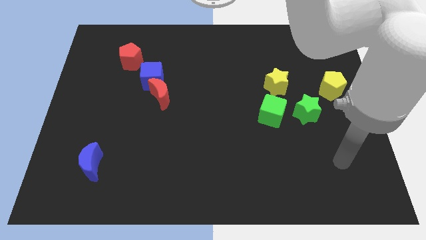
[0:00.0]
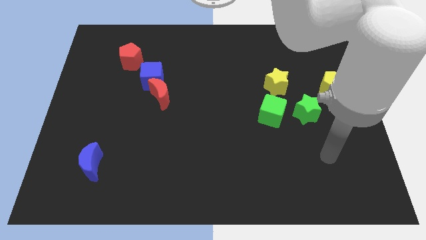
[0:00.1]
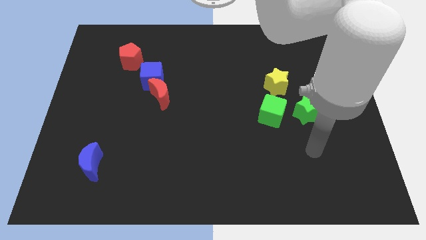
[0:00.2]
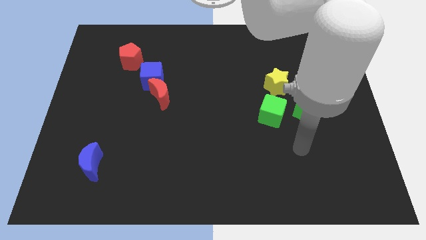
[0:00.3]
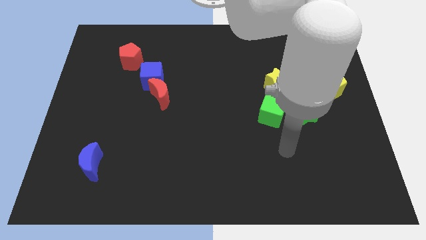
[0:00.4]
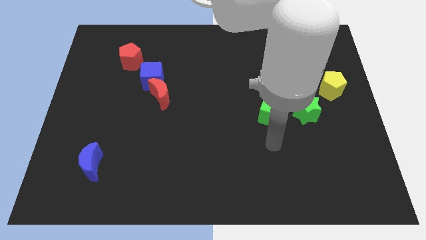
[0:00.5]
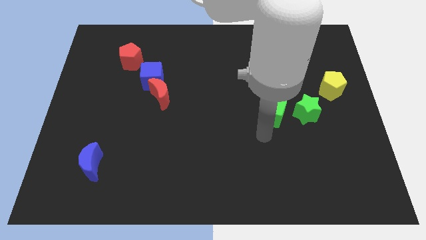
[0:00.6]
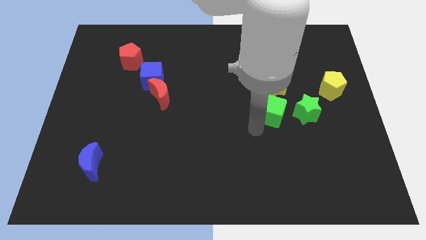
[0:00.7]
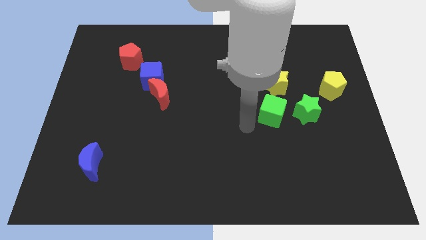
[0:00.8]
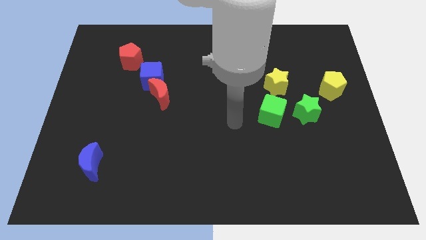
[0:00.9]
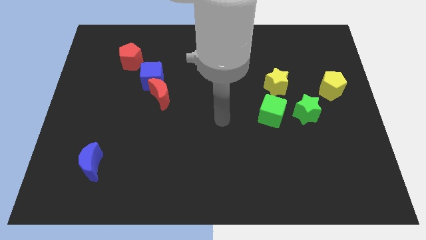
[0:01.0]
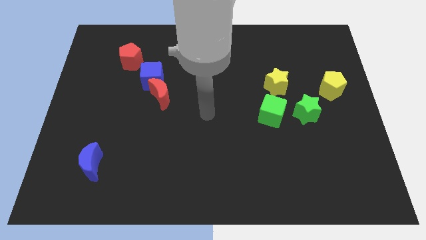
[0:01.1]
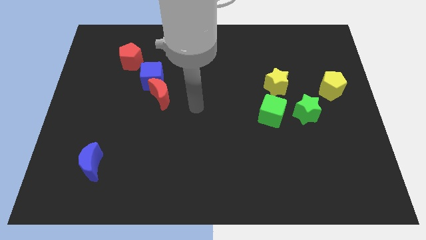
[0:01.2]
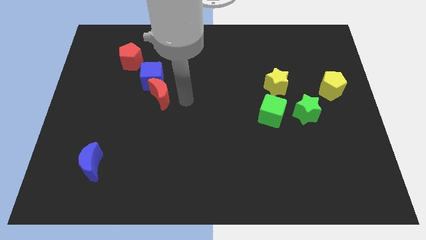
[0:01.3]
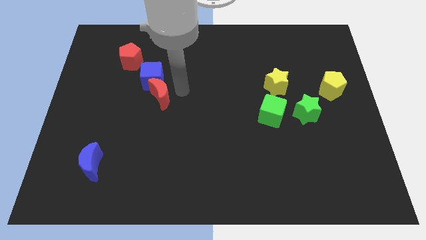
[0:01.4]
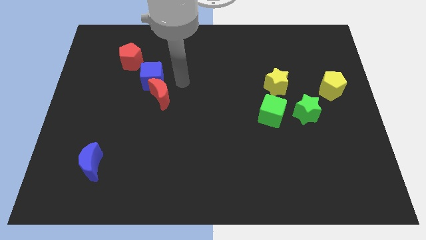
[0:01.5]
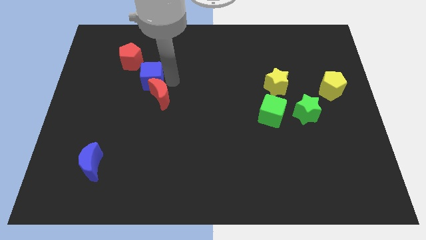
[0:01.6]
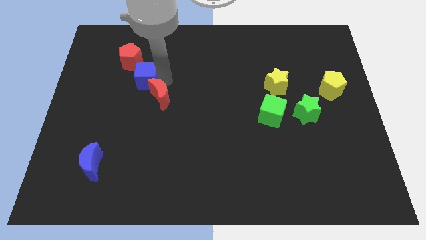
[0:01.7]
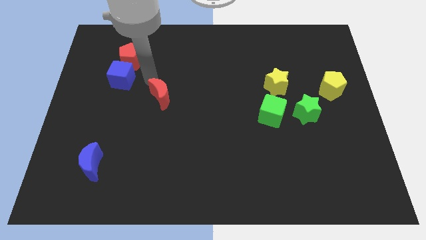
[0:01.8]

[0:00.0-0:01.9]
move the red moon away from the blue cube

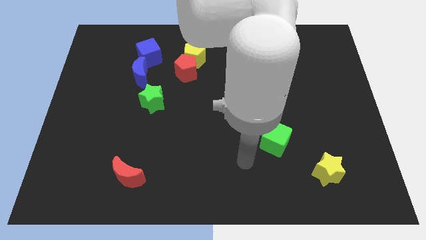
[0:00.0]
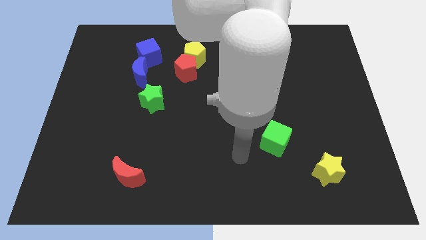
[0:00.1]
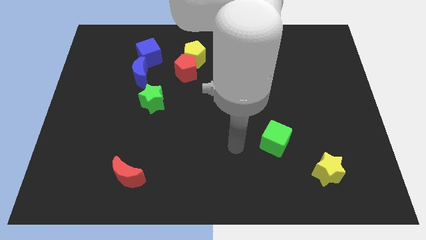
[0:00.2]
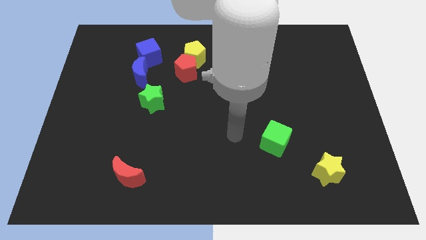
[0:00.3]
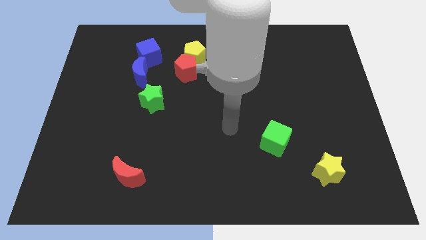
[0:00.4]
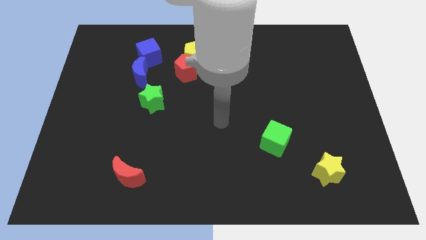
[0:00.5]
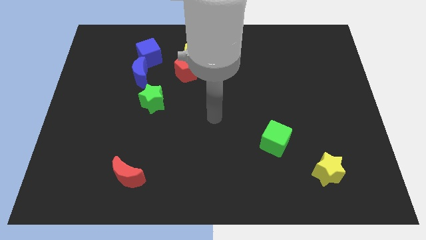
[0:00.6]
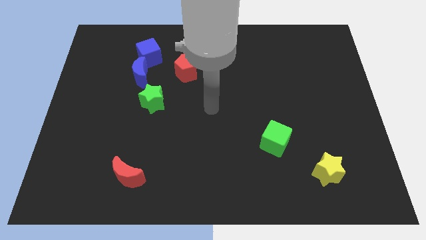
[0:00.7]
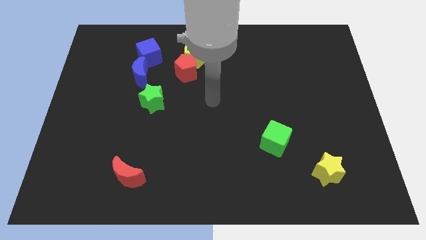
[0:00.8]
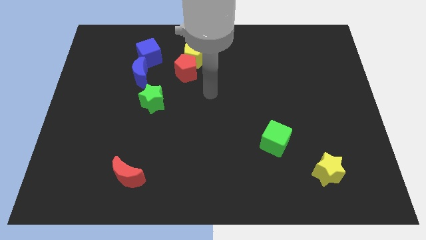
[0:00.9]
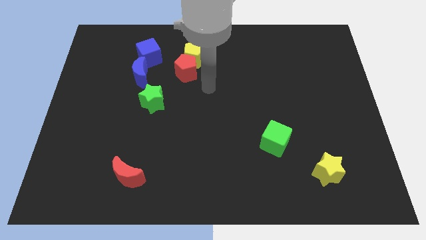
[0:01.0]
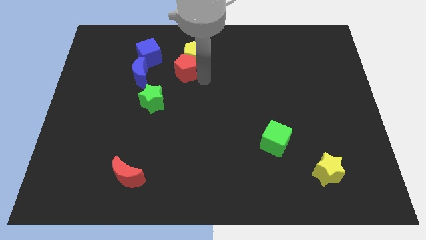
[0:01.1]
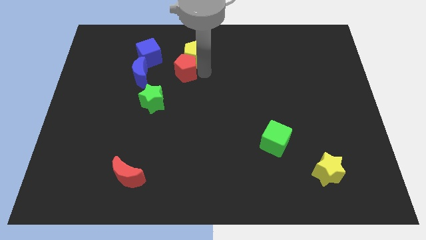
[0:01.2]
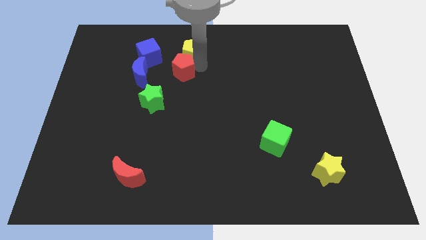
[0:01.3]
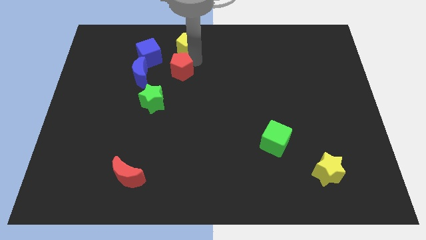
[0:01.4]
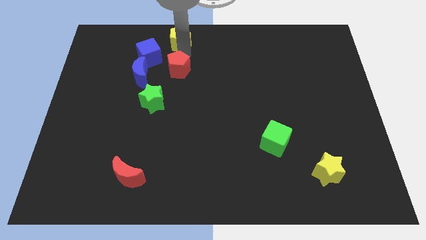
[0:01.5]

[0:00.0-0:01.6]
separate the red pentagon from the yellow pentagon

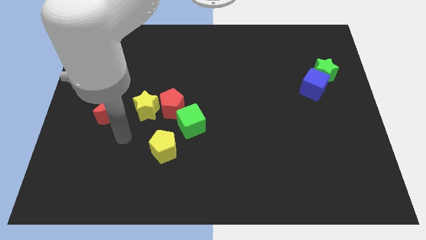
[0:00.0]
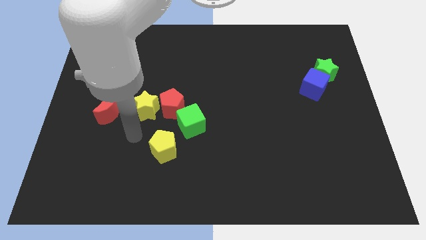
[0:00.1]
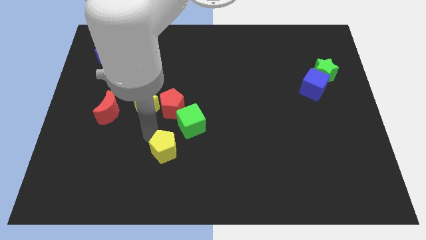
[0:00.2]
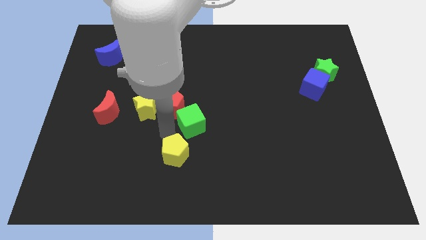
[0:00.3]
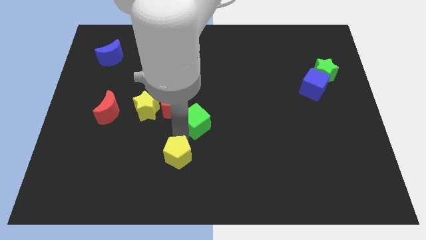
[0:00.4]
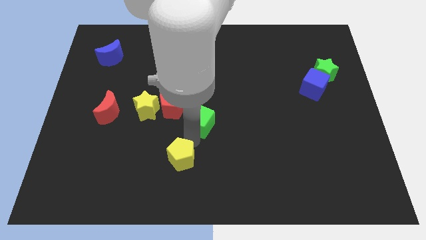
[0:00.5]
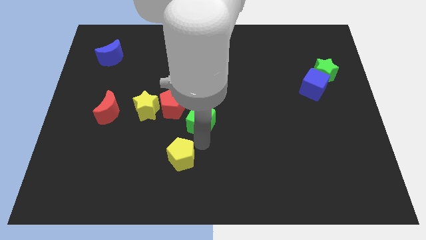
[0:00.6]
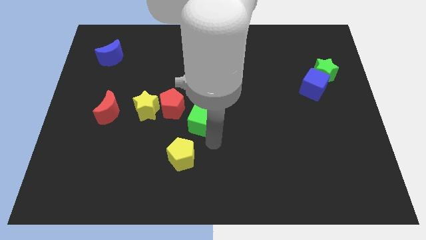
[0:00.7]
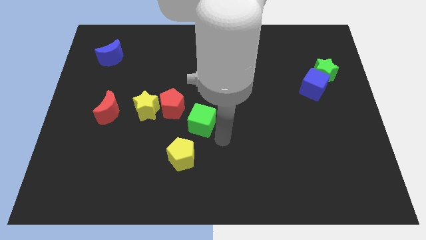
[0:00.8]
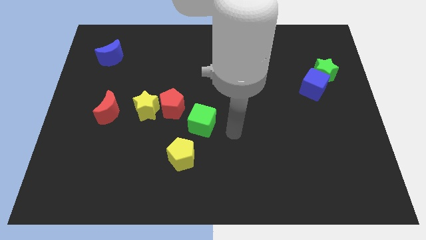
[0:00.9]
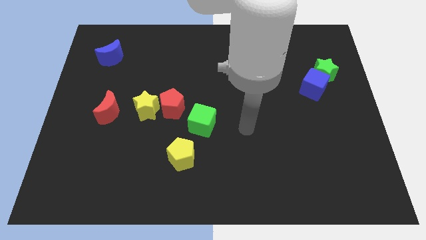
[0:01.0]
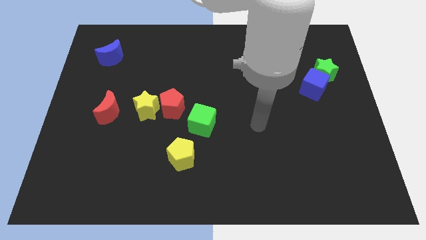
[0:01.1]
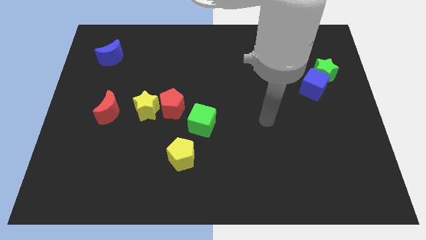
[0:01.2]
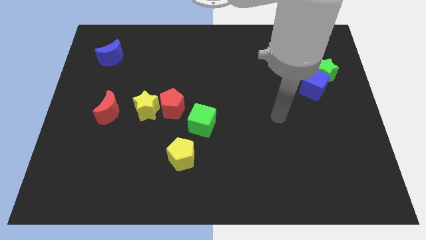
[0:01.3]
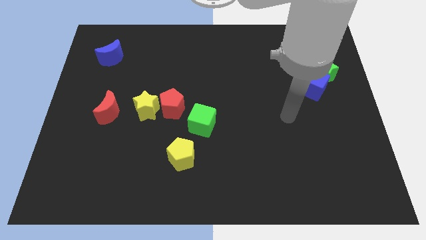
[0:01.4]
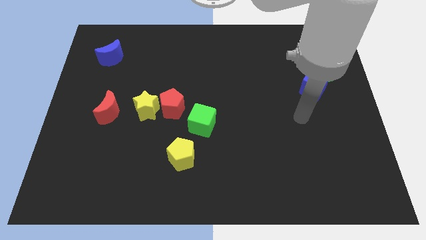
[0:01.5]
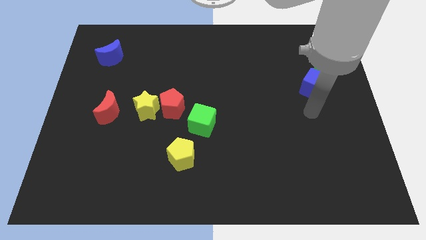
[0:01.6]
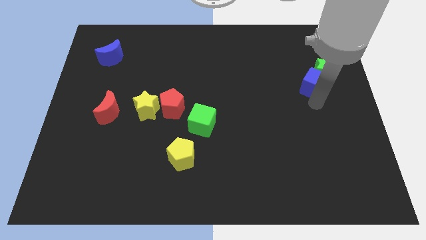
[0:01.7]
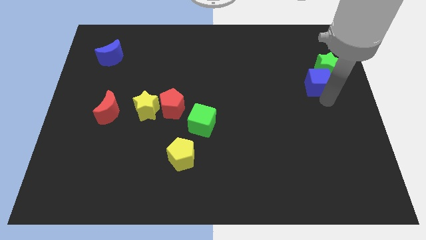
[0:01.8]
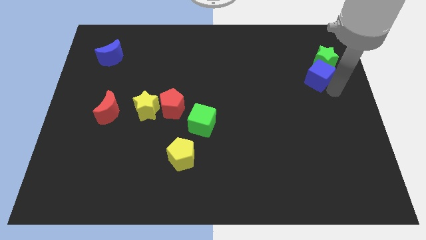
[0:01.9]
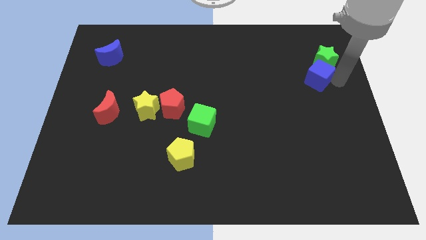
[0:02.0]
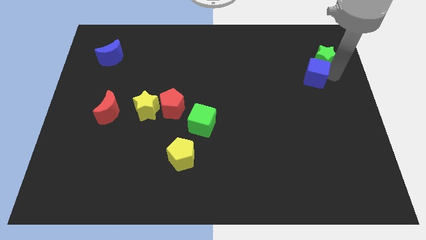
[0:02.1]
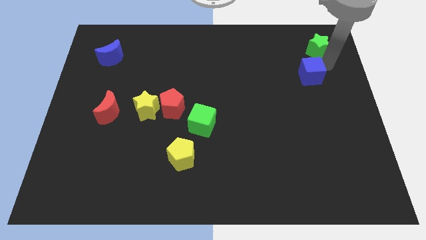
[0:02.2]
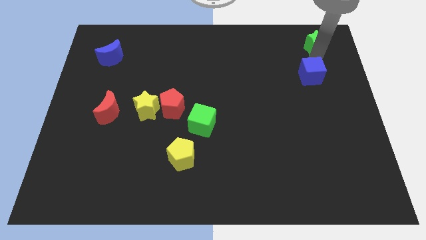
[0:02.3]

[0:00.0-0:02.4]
separate the blue cube from the green star

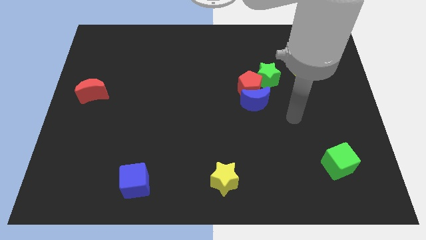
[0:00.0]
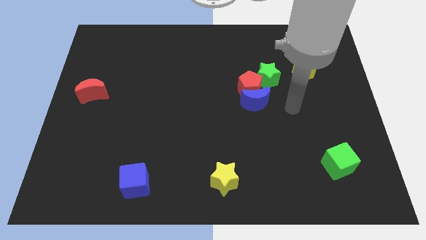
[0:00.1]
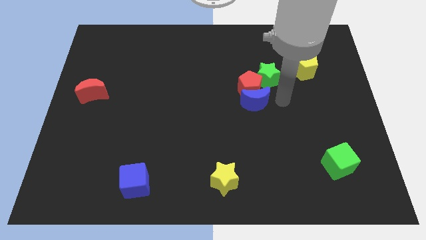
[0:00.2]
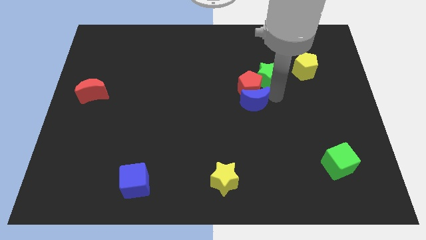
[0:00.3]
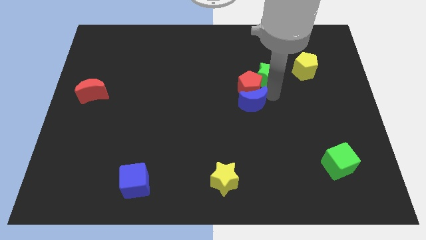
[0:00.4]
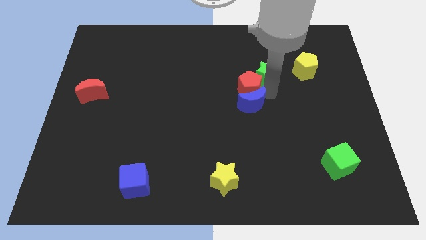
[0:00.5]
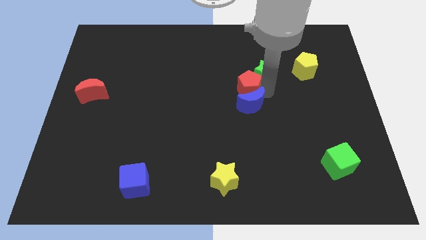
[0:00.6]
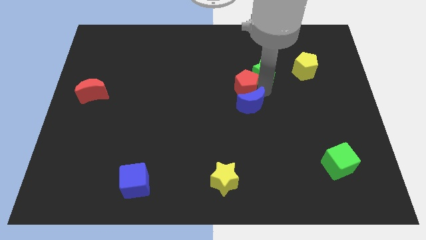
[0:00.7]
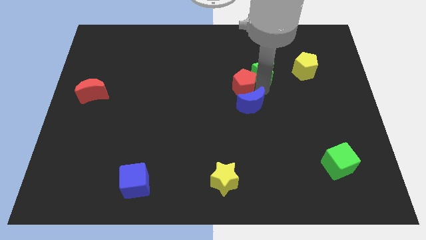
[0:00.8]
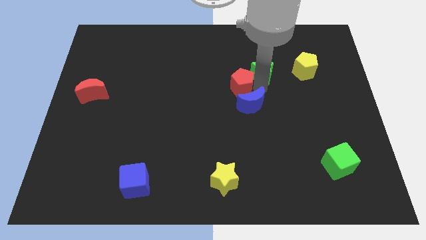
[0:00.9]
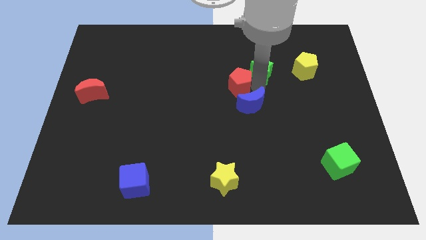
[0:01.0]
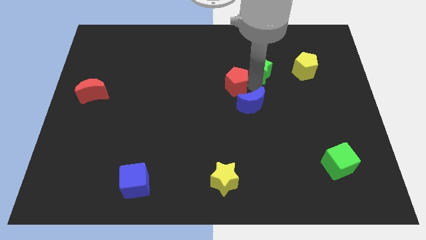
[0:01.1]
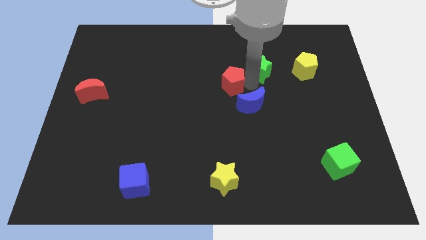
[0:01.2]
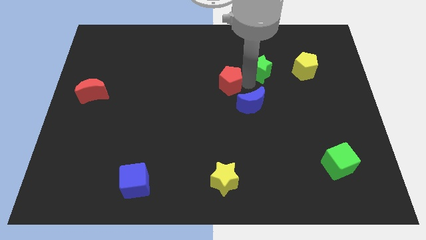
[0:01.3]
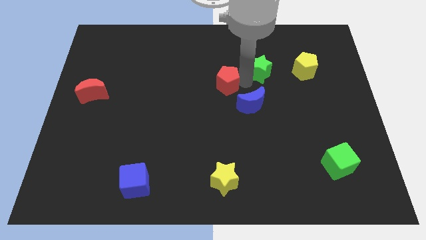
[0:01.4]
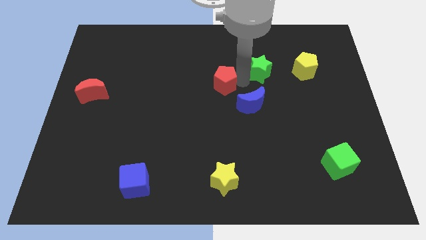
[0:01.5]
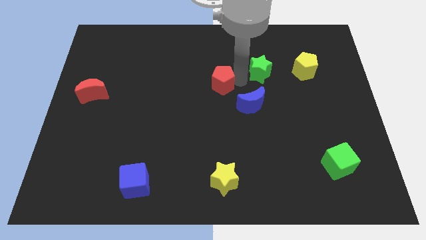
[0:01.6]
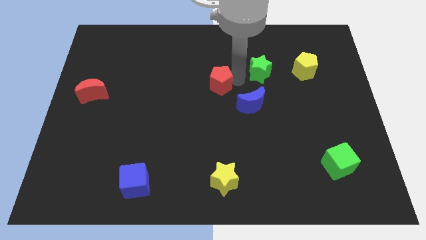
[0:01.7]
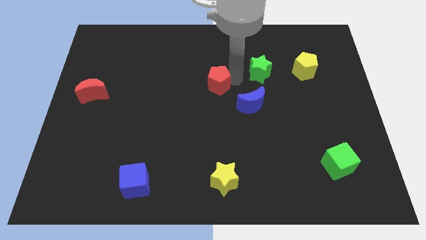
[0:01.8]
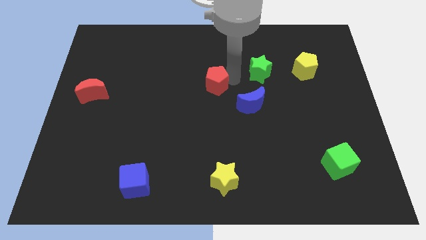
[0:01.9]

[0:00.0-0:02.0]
move the red pentagon away from the blue moon and green star

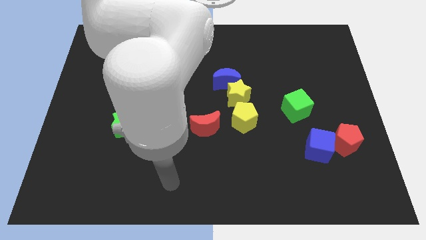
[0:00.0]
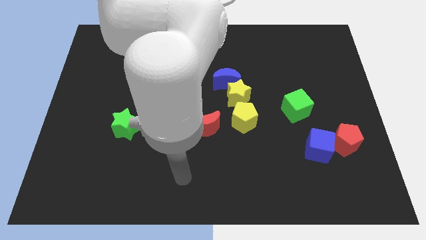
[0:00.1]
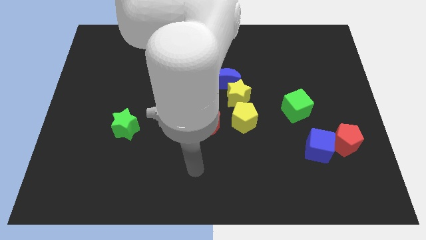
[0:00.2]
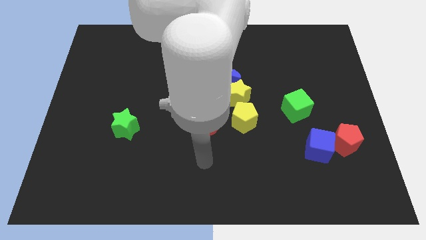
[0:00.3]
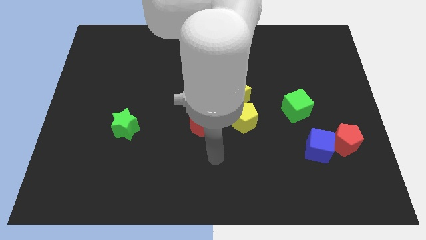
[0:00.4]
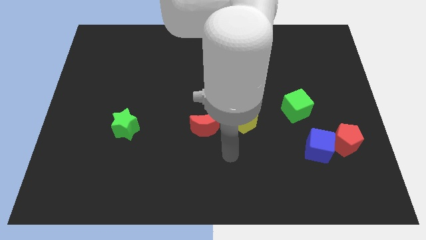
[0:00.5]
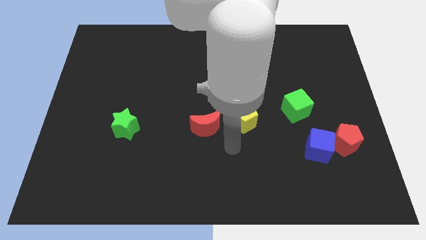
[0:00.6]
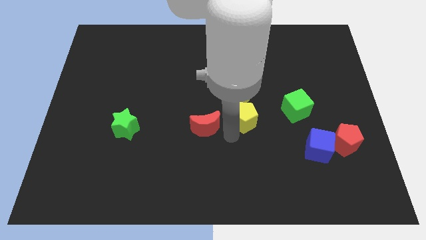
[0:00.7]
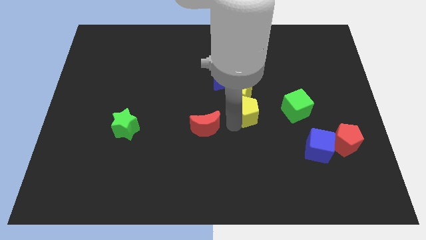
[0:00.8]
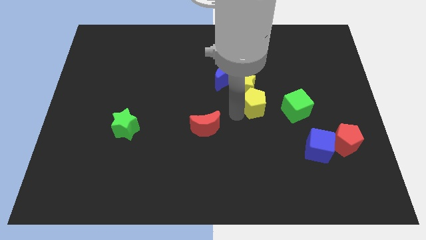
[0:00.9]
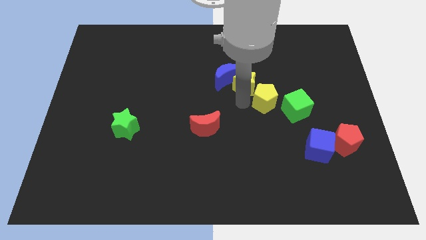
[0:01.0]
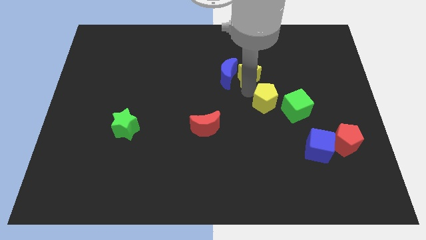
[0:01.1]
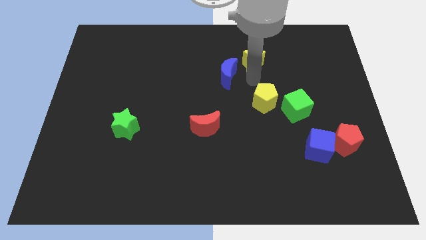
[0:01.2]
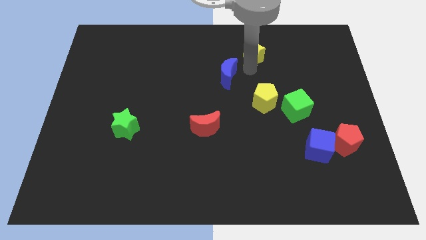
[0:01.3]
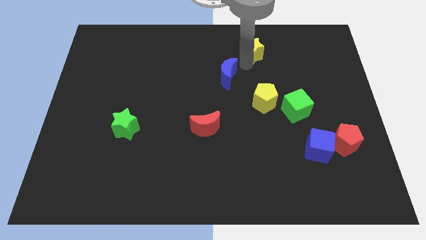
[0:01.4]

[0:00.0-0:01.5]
move the blue moon away from the yellow star
